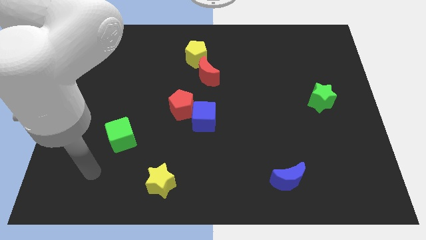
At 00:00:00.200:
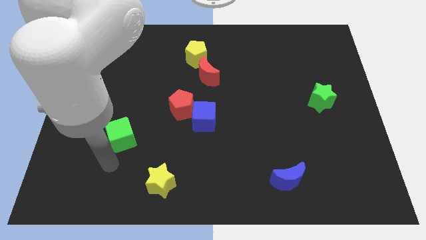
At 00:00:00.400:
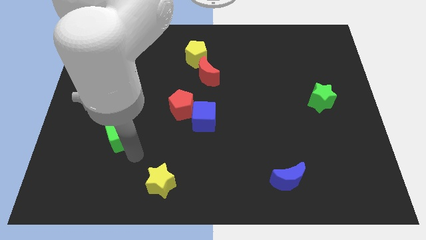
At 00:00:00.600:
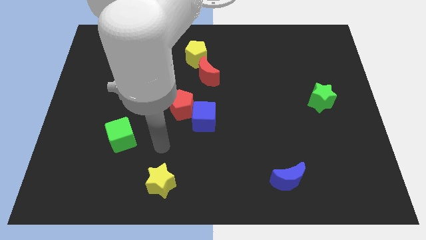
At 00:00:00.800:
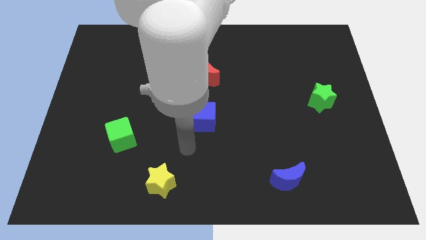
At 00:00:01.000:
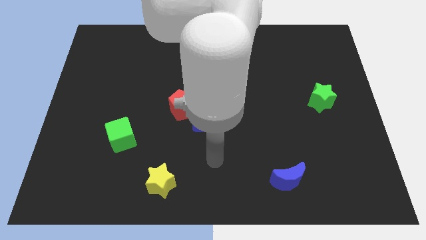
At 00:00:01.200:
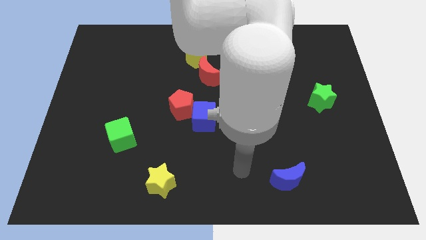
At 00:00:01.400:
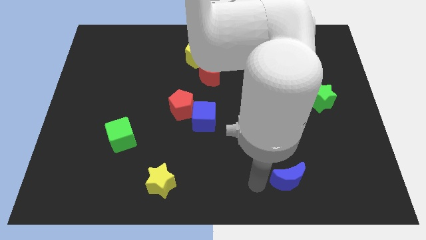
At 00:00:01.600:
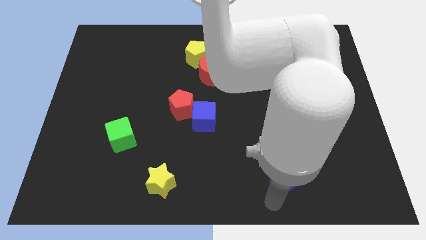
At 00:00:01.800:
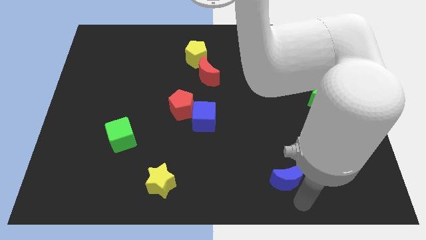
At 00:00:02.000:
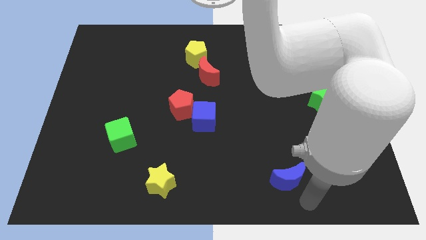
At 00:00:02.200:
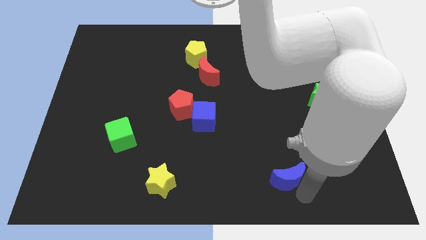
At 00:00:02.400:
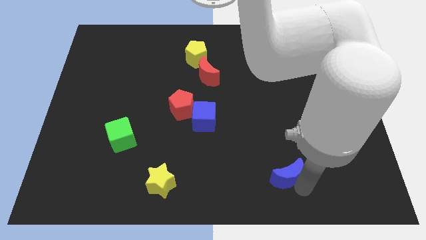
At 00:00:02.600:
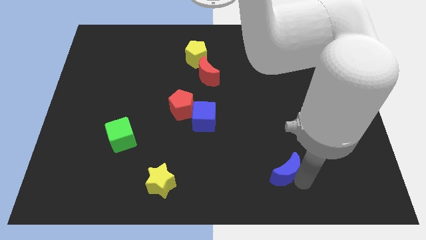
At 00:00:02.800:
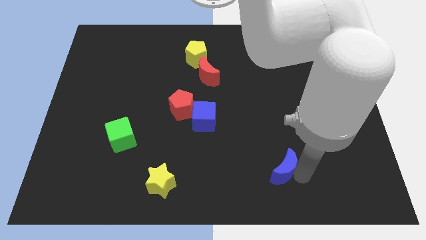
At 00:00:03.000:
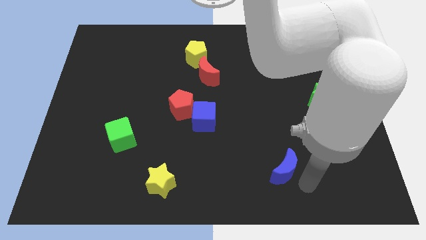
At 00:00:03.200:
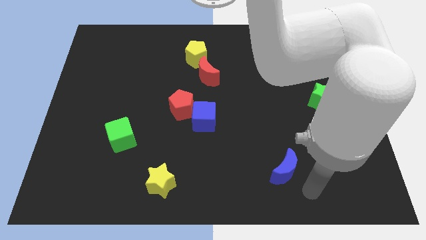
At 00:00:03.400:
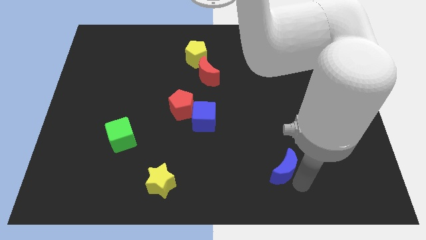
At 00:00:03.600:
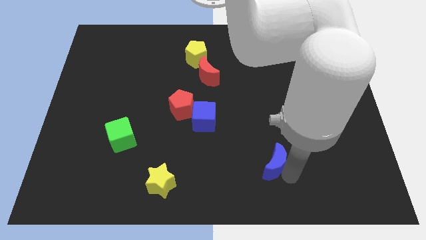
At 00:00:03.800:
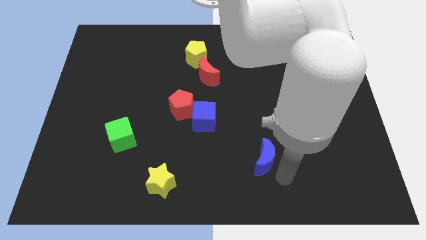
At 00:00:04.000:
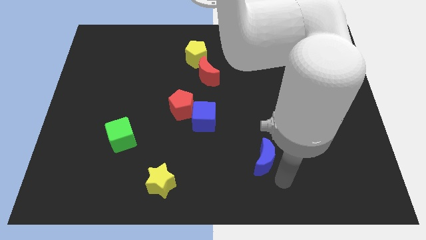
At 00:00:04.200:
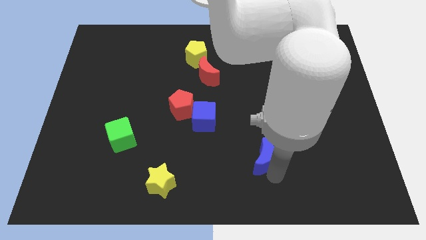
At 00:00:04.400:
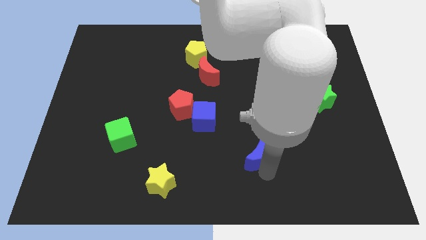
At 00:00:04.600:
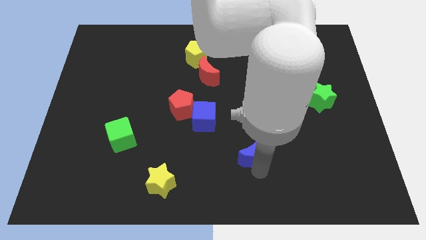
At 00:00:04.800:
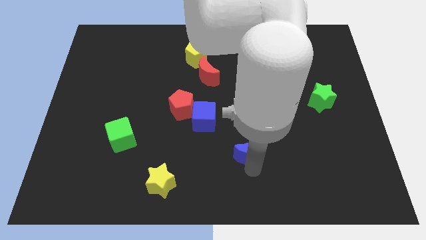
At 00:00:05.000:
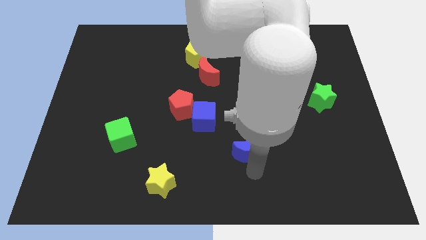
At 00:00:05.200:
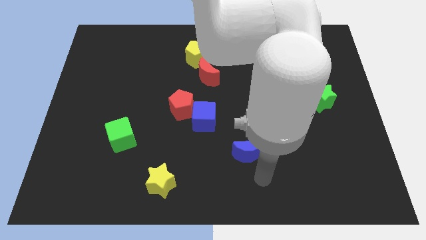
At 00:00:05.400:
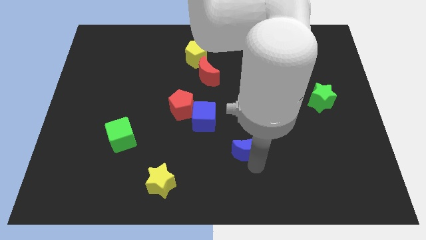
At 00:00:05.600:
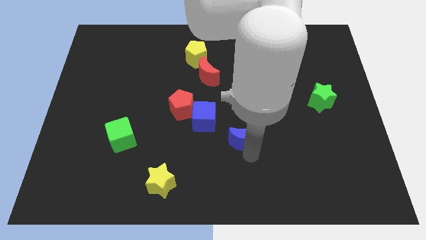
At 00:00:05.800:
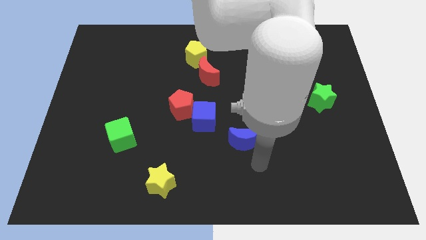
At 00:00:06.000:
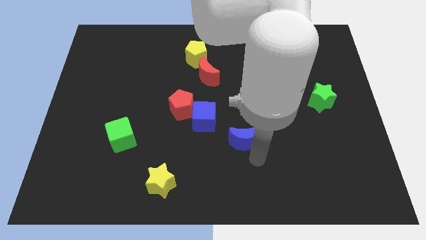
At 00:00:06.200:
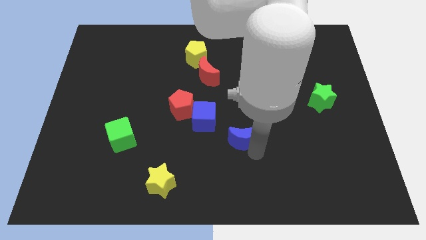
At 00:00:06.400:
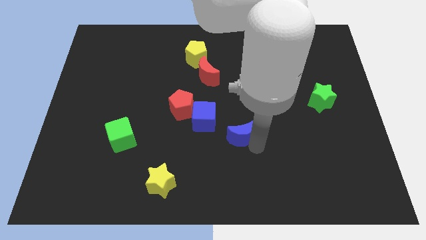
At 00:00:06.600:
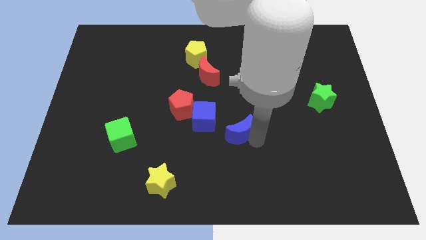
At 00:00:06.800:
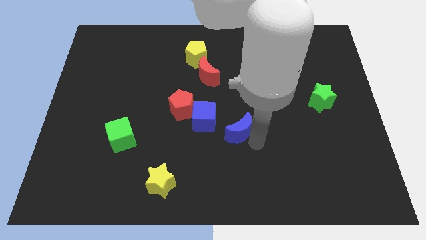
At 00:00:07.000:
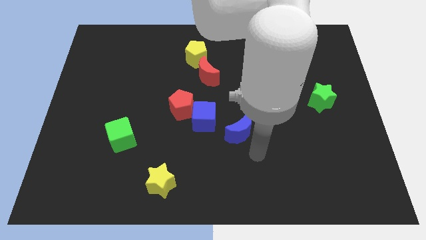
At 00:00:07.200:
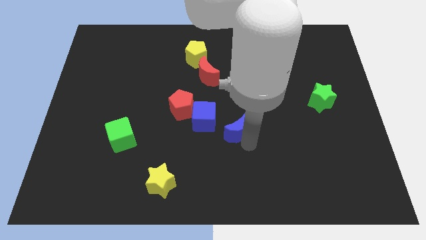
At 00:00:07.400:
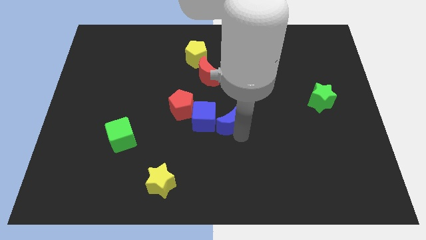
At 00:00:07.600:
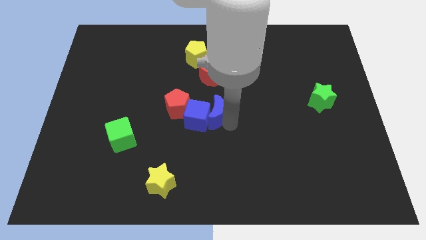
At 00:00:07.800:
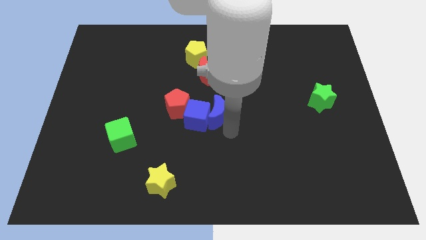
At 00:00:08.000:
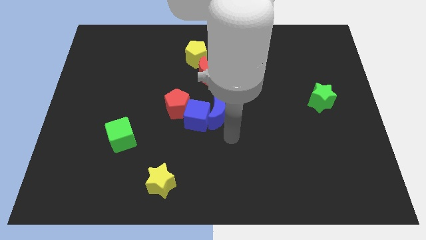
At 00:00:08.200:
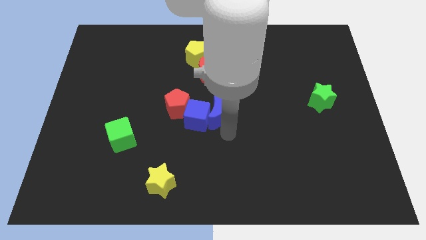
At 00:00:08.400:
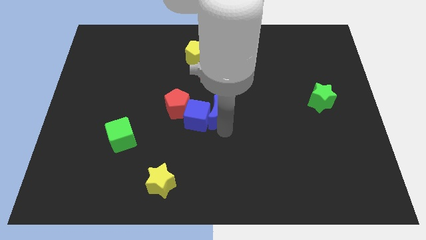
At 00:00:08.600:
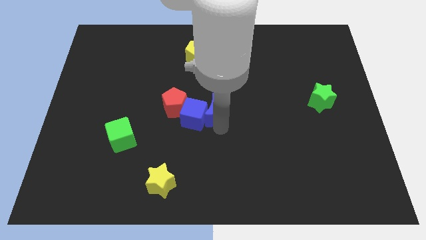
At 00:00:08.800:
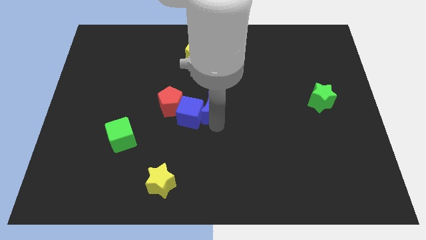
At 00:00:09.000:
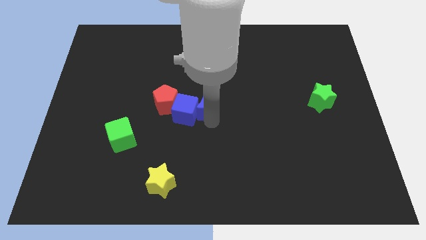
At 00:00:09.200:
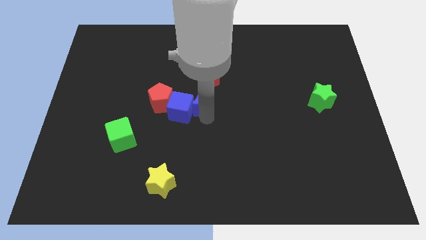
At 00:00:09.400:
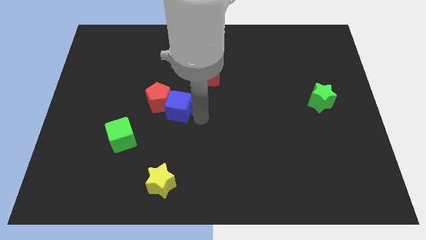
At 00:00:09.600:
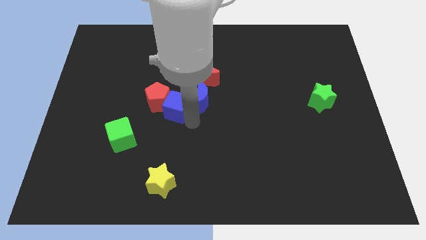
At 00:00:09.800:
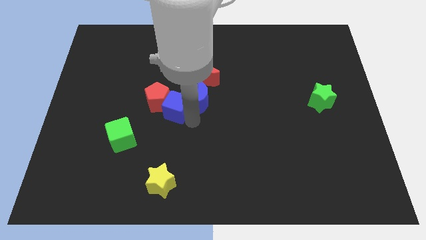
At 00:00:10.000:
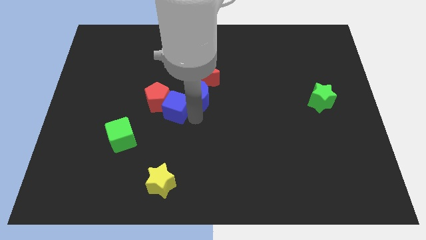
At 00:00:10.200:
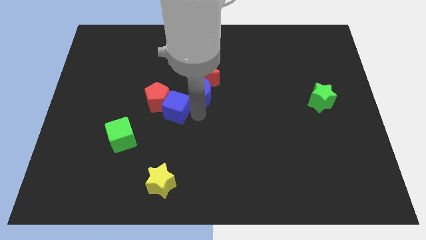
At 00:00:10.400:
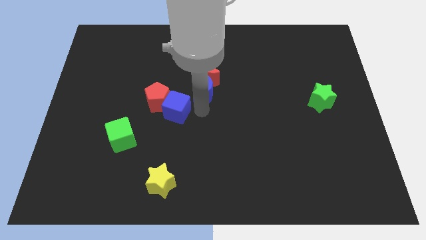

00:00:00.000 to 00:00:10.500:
put the blue moon to the red moon

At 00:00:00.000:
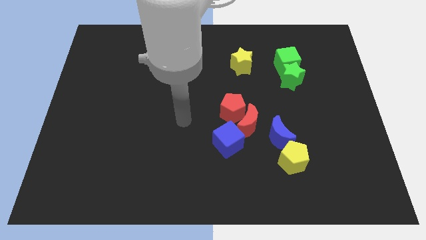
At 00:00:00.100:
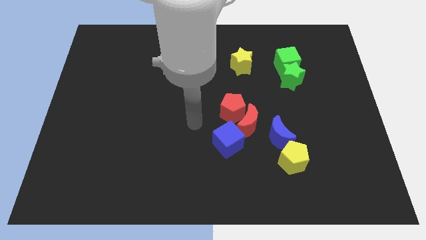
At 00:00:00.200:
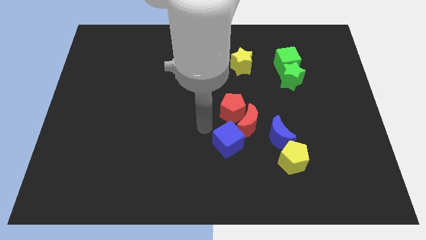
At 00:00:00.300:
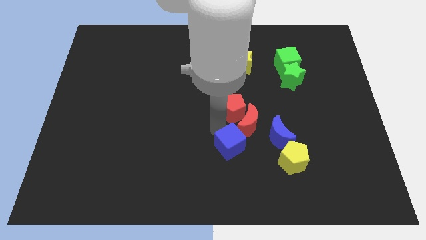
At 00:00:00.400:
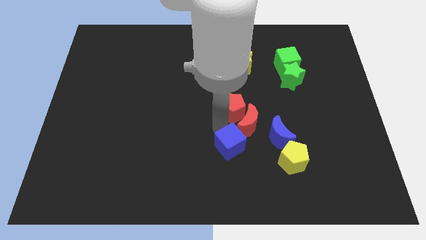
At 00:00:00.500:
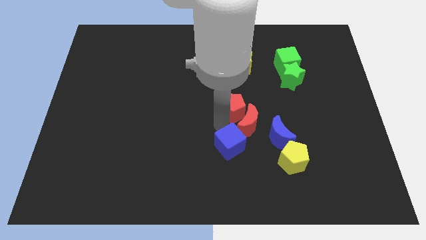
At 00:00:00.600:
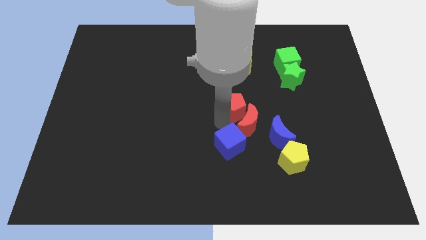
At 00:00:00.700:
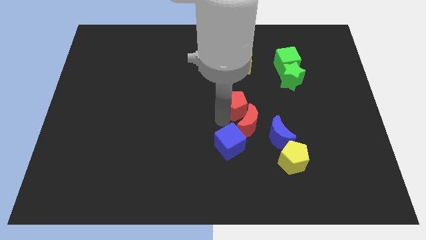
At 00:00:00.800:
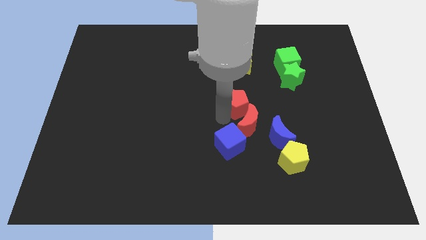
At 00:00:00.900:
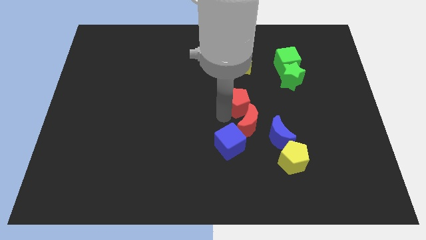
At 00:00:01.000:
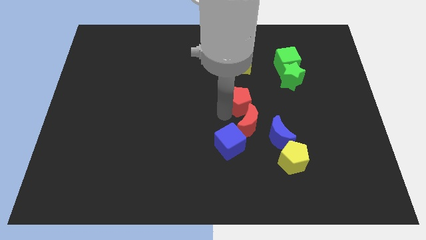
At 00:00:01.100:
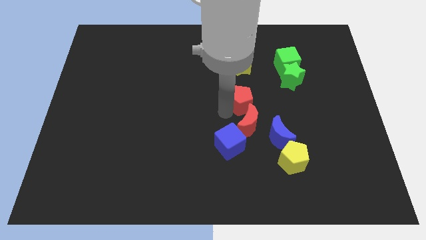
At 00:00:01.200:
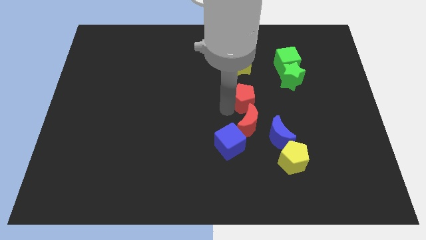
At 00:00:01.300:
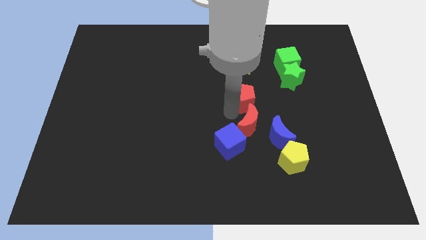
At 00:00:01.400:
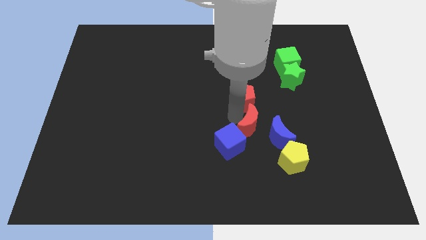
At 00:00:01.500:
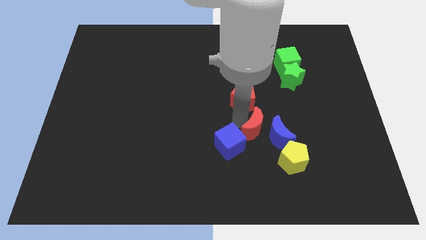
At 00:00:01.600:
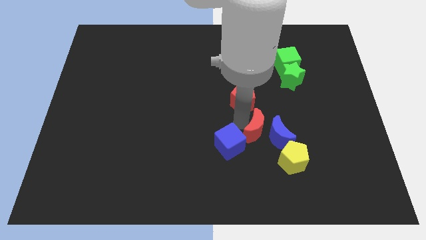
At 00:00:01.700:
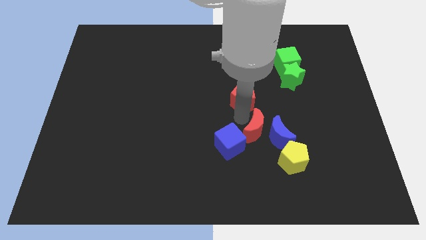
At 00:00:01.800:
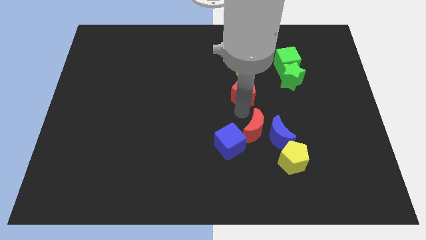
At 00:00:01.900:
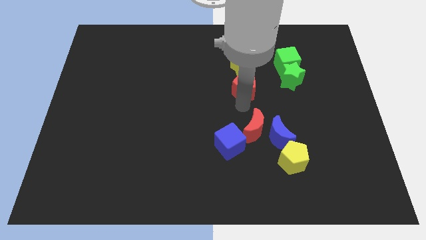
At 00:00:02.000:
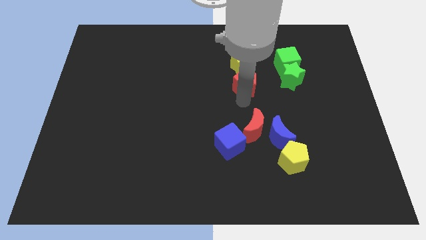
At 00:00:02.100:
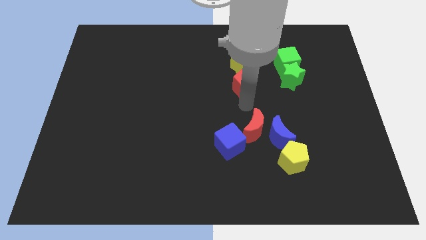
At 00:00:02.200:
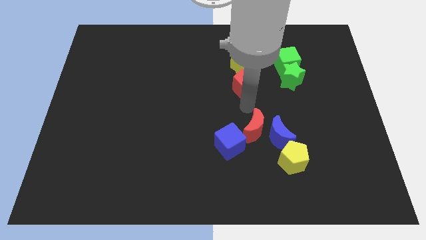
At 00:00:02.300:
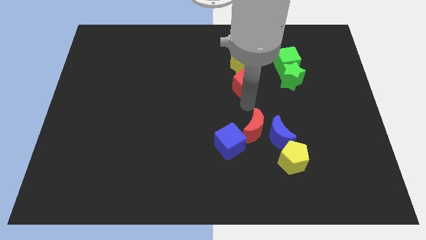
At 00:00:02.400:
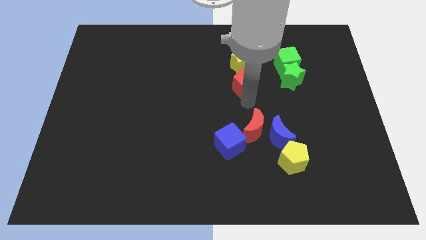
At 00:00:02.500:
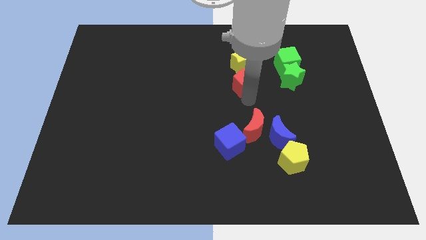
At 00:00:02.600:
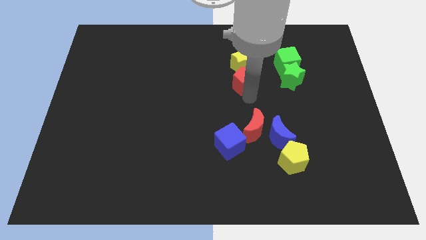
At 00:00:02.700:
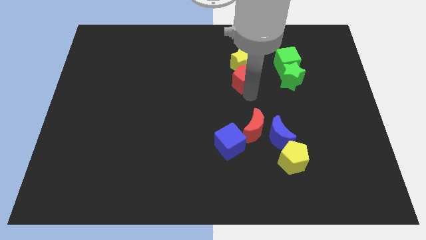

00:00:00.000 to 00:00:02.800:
move the red pentagon towards the yellow star
